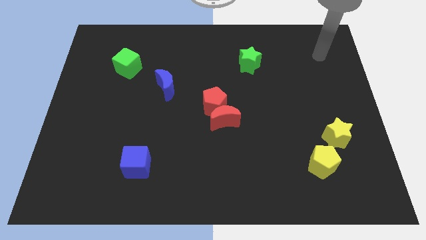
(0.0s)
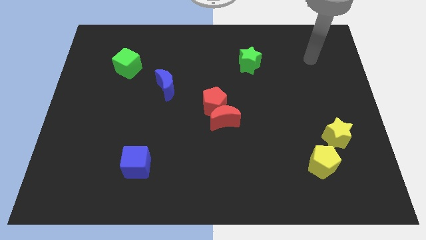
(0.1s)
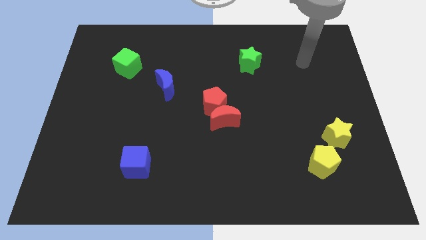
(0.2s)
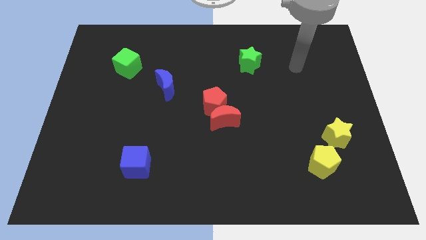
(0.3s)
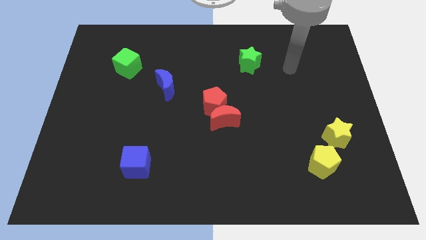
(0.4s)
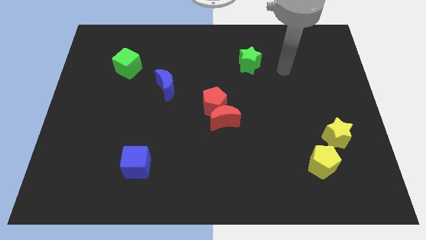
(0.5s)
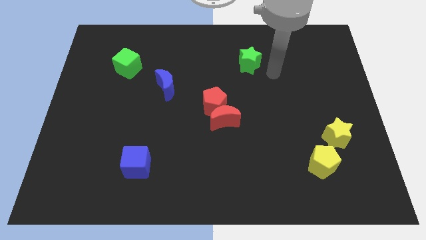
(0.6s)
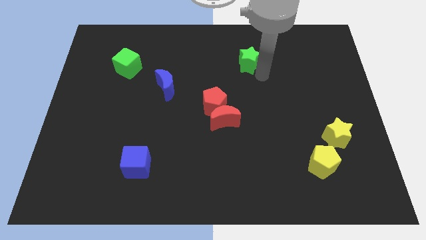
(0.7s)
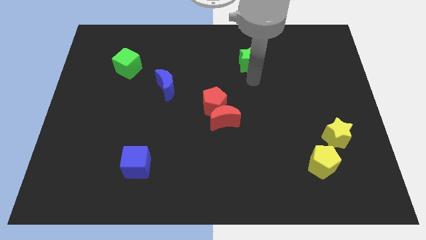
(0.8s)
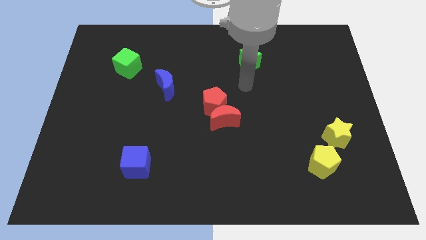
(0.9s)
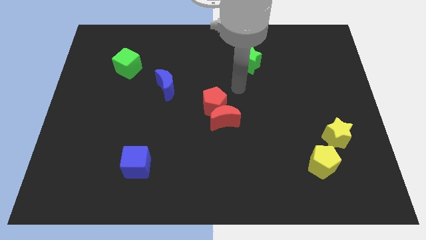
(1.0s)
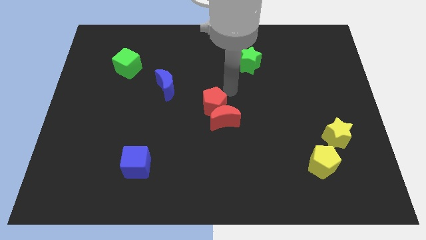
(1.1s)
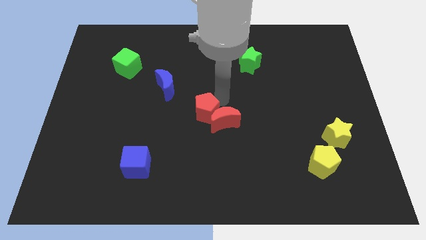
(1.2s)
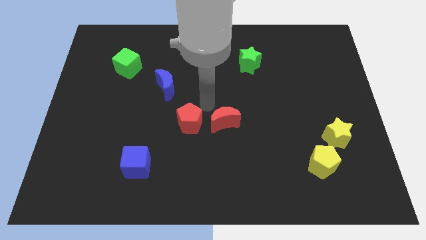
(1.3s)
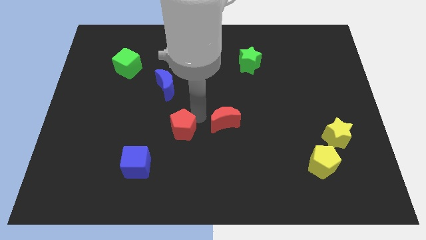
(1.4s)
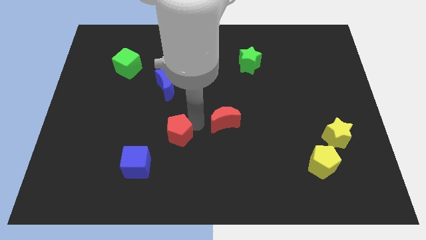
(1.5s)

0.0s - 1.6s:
separate the red moon from the red pentagon

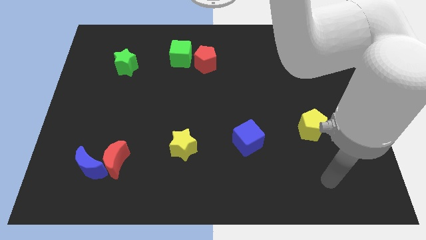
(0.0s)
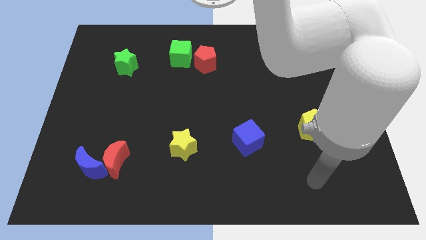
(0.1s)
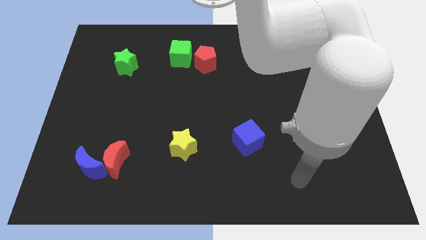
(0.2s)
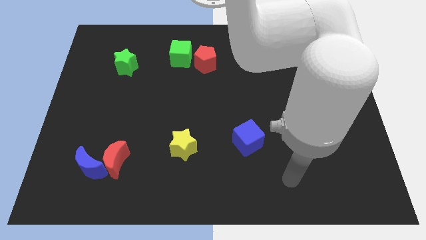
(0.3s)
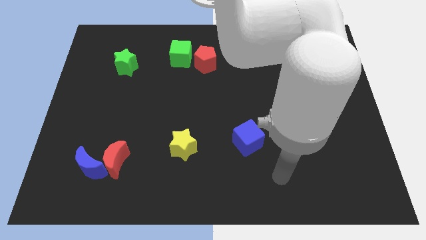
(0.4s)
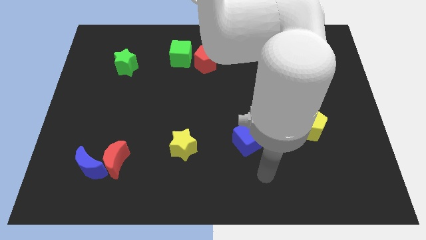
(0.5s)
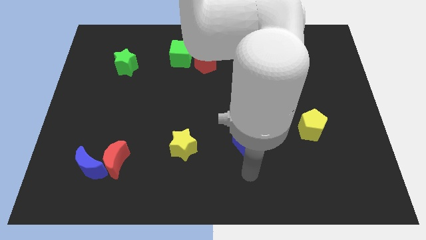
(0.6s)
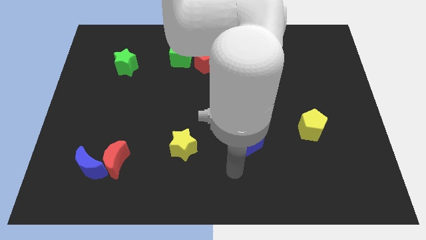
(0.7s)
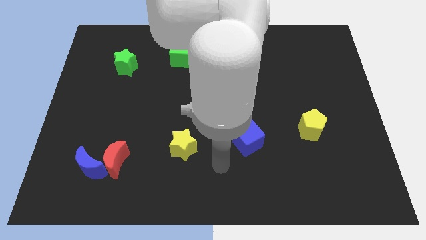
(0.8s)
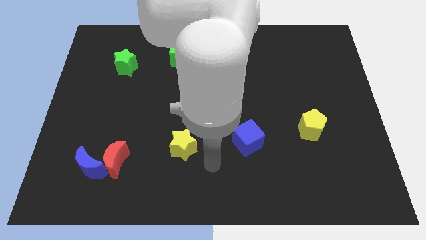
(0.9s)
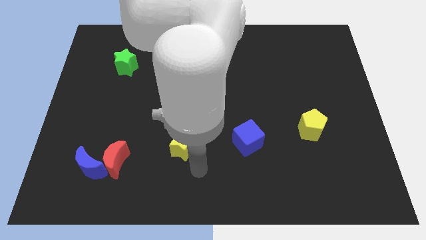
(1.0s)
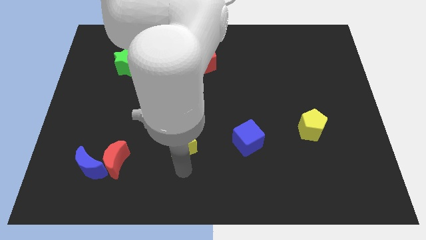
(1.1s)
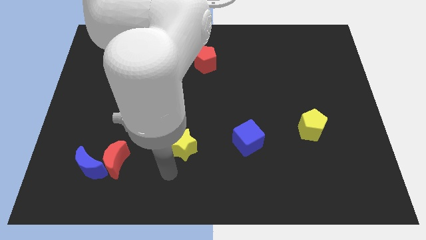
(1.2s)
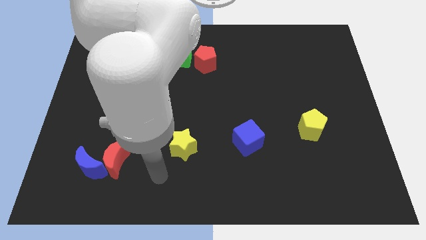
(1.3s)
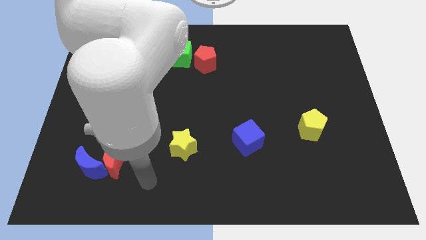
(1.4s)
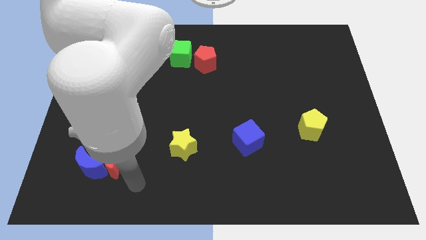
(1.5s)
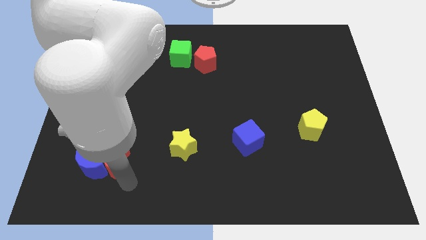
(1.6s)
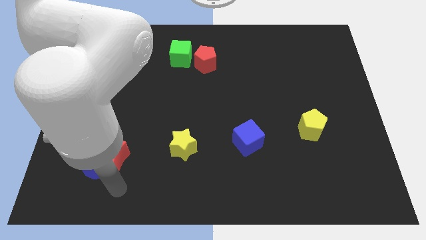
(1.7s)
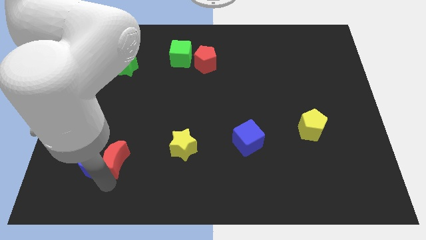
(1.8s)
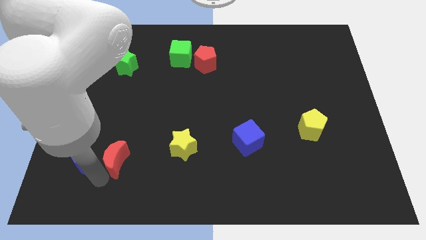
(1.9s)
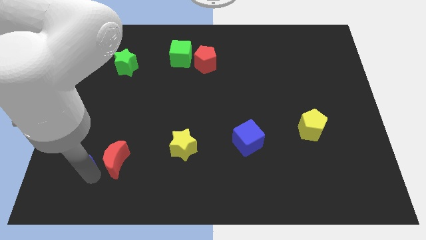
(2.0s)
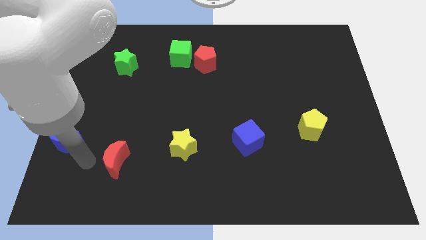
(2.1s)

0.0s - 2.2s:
pull the red moon apart from the blue moon

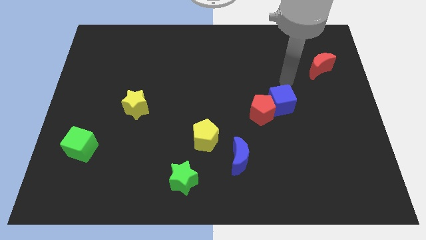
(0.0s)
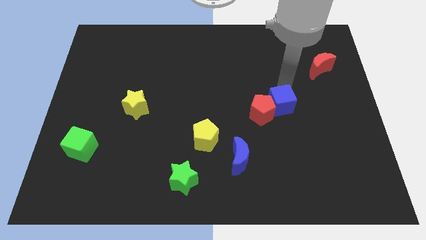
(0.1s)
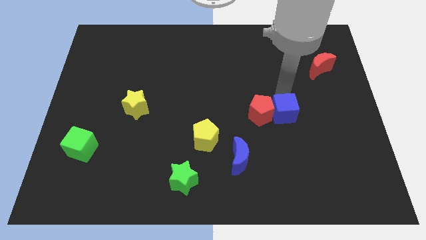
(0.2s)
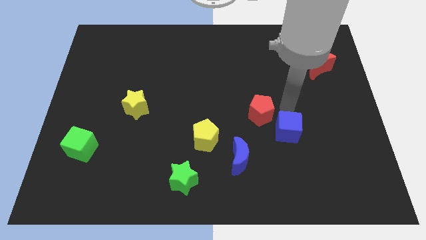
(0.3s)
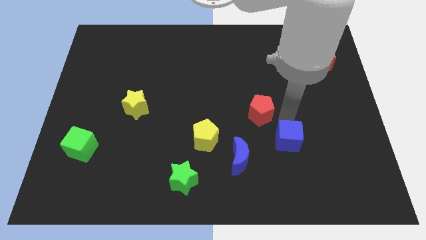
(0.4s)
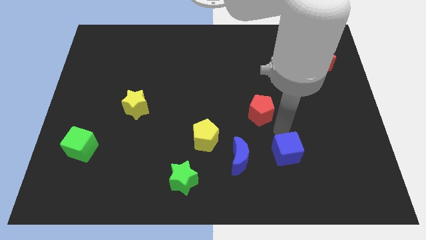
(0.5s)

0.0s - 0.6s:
separate the red pentagon from the blue cube

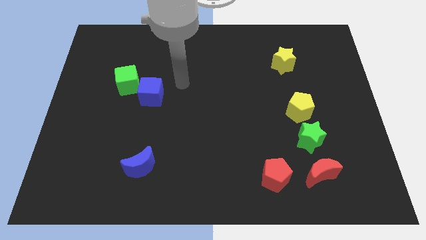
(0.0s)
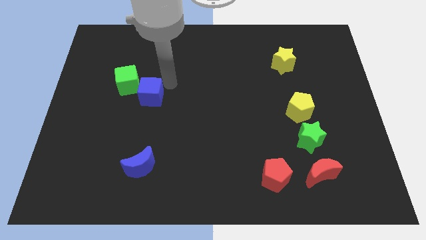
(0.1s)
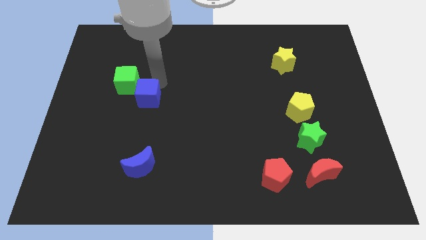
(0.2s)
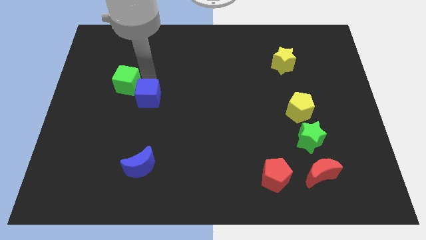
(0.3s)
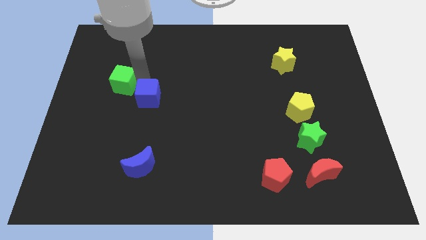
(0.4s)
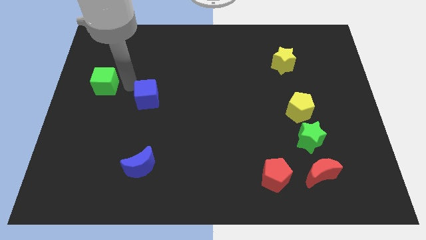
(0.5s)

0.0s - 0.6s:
separate the blue cube from the green cube

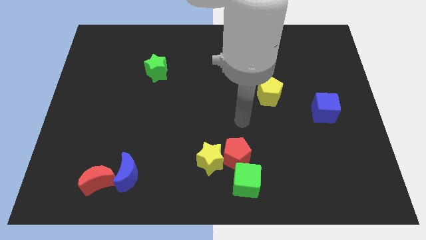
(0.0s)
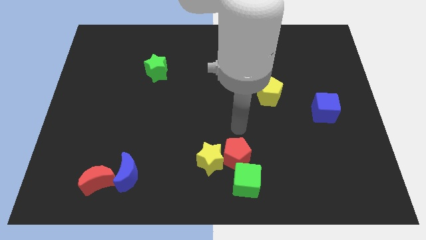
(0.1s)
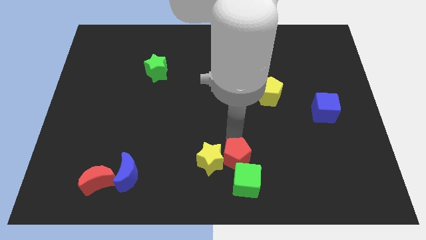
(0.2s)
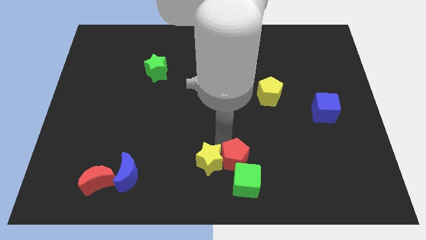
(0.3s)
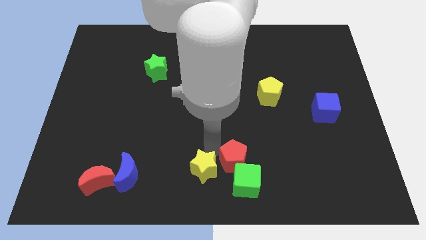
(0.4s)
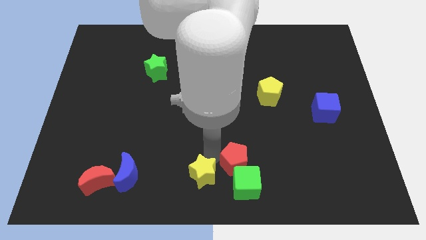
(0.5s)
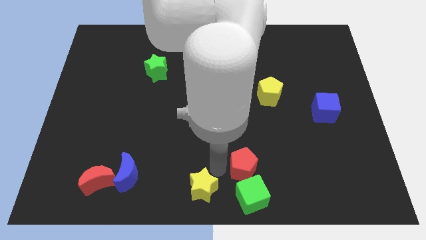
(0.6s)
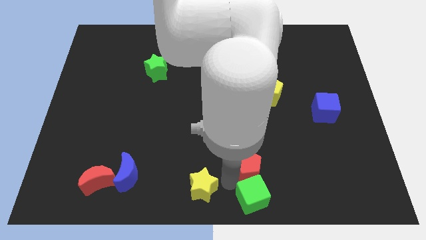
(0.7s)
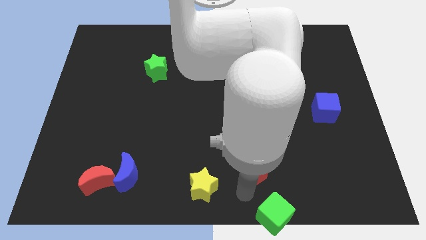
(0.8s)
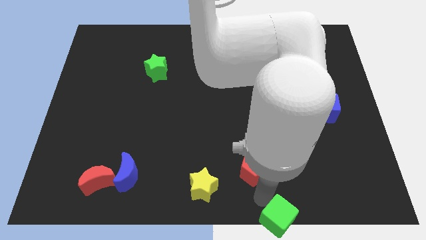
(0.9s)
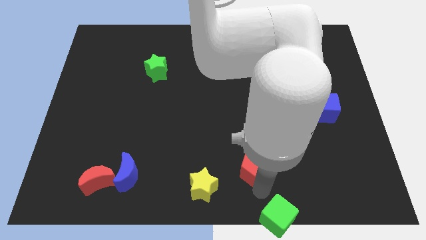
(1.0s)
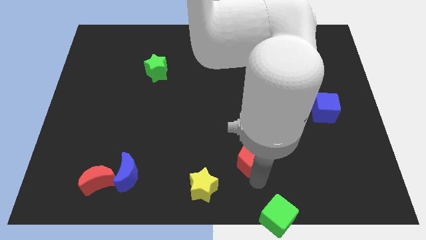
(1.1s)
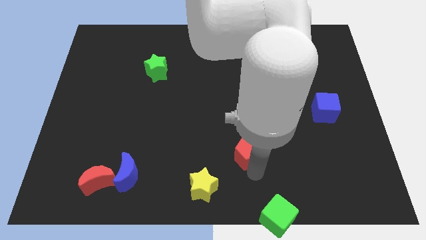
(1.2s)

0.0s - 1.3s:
separate the red pentagon from the yellow star and green cube

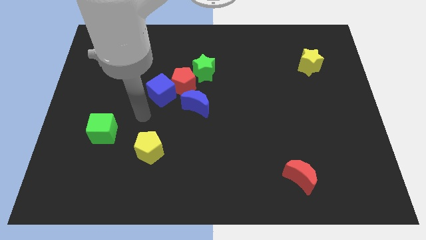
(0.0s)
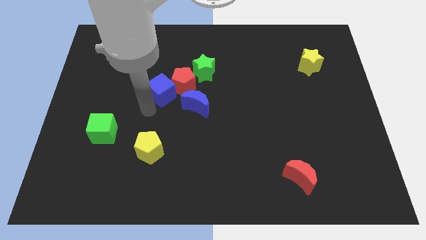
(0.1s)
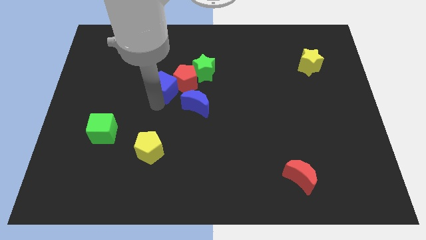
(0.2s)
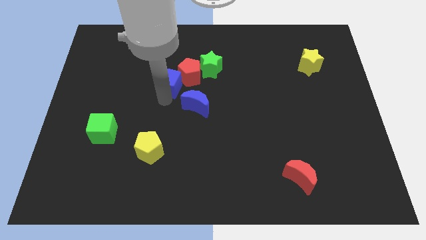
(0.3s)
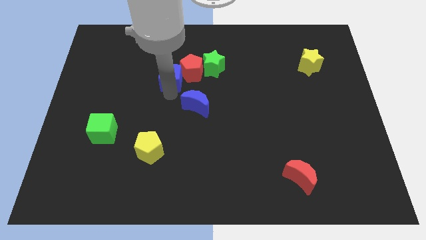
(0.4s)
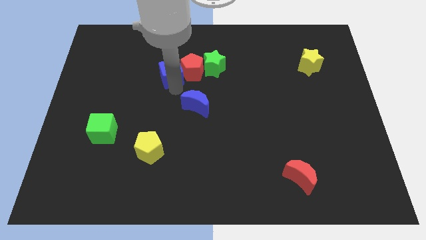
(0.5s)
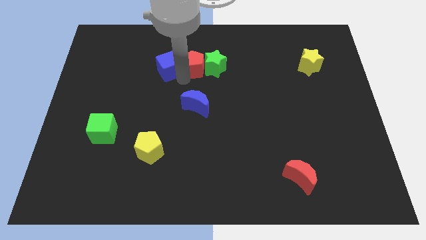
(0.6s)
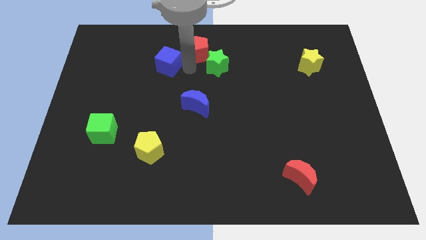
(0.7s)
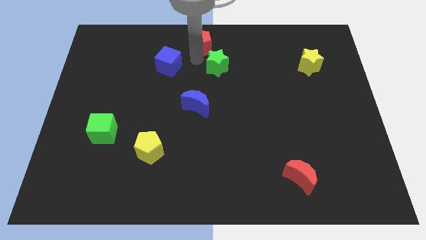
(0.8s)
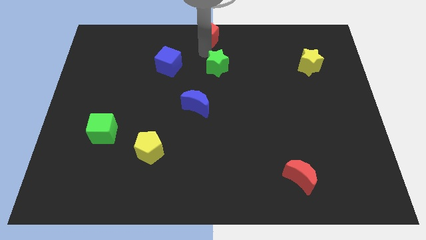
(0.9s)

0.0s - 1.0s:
move the green star away from the red pentagon

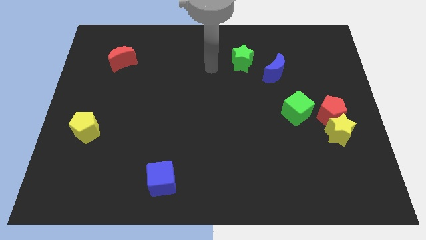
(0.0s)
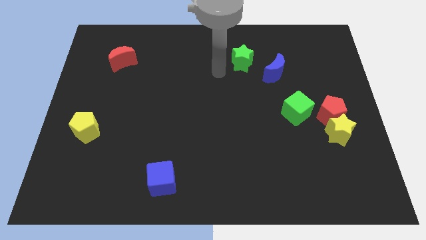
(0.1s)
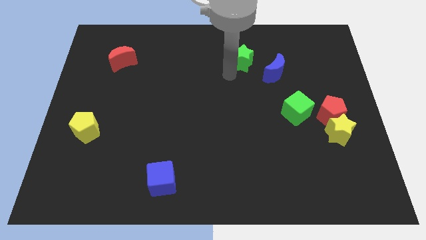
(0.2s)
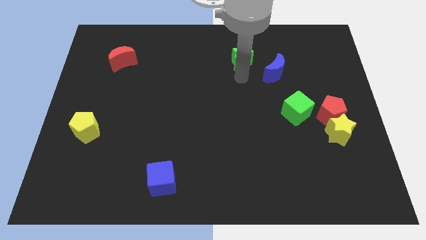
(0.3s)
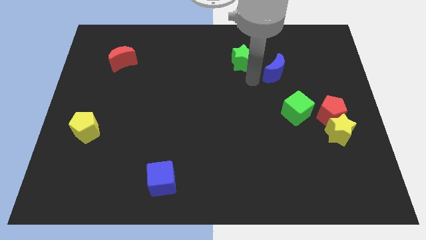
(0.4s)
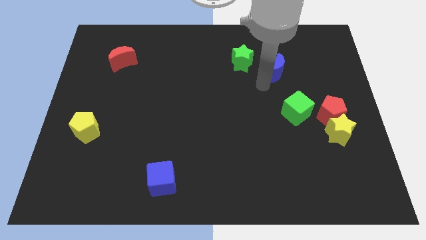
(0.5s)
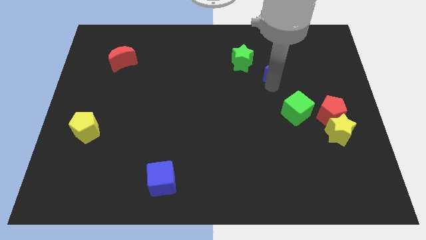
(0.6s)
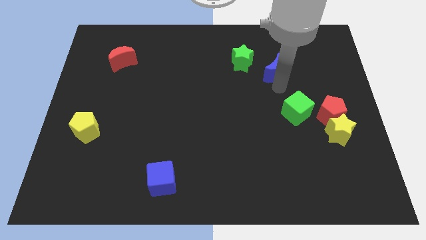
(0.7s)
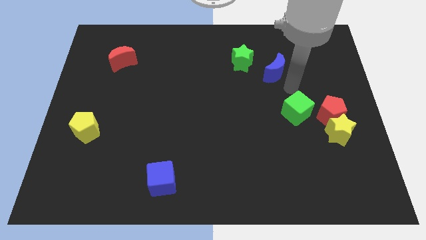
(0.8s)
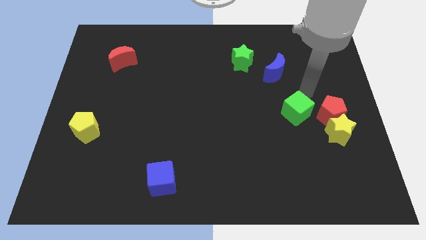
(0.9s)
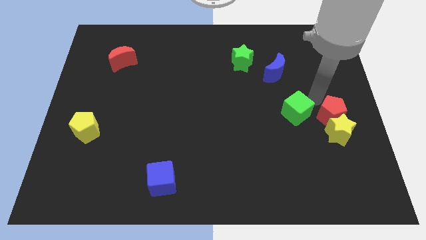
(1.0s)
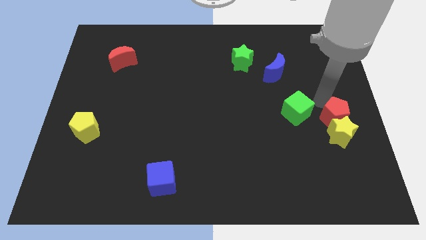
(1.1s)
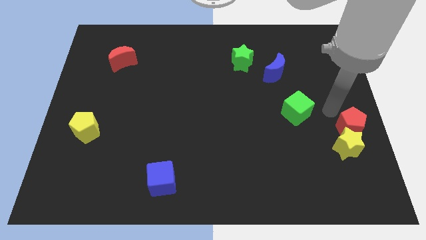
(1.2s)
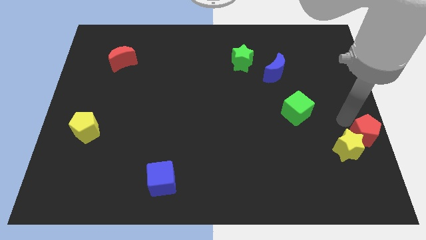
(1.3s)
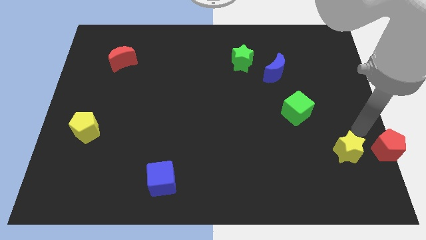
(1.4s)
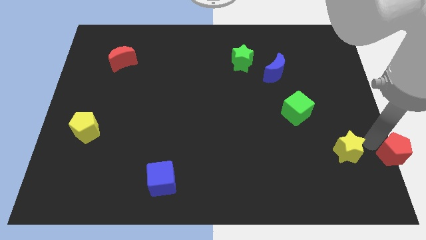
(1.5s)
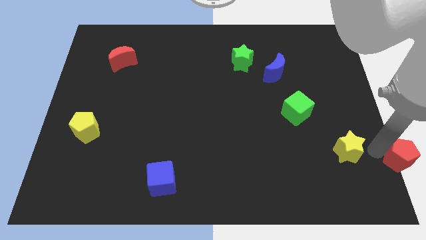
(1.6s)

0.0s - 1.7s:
pull the yellow star apart from the red pentagon

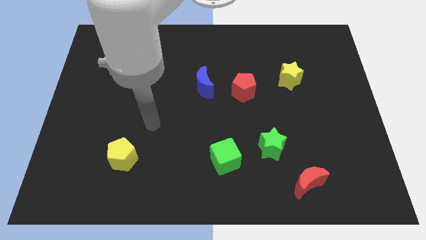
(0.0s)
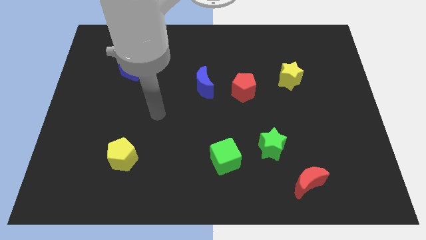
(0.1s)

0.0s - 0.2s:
separate the red pentagon from the blue moon
